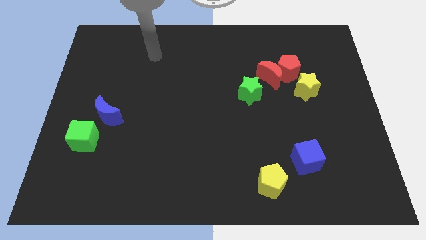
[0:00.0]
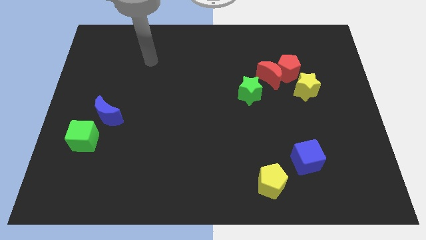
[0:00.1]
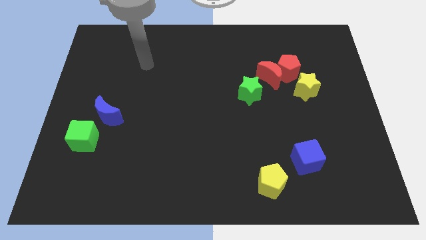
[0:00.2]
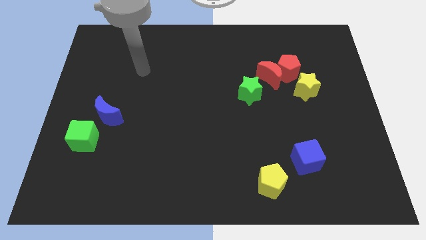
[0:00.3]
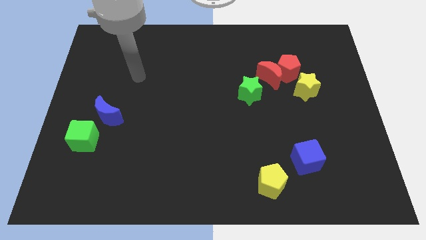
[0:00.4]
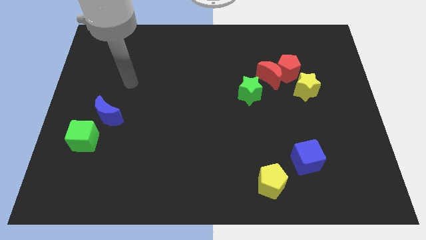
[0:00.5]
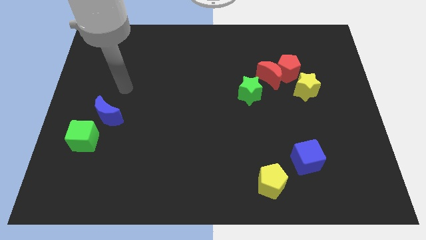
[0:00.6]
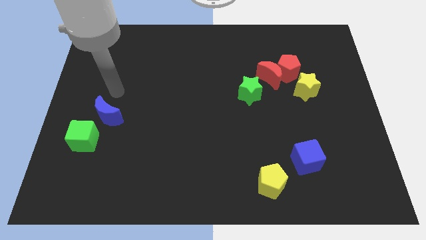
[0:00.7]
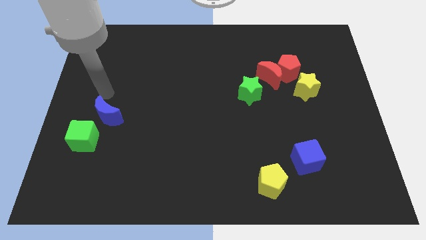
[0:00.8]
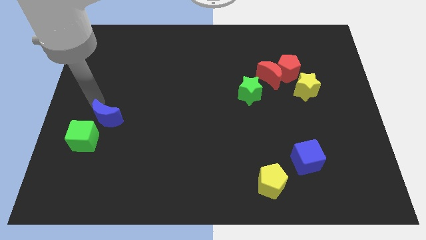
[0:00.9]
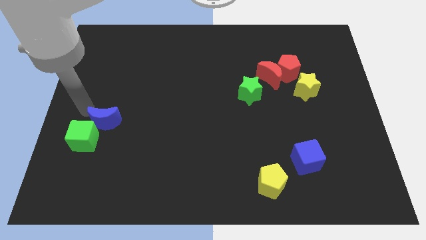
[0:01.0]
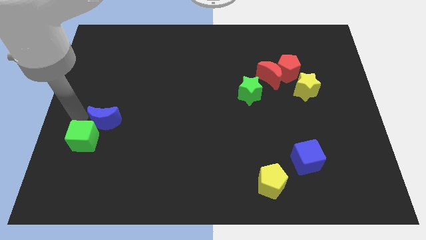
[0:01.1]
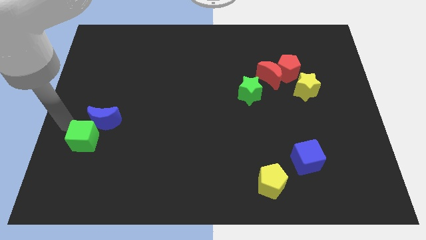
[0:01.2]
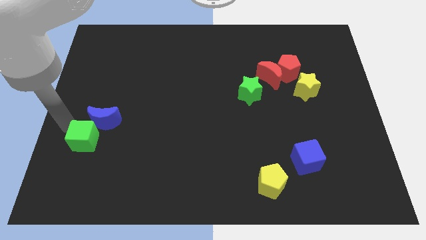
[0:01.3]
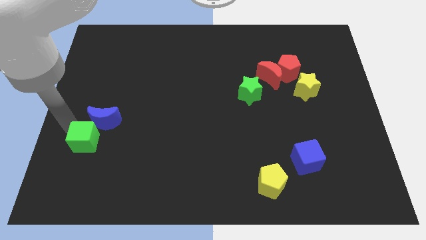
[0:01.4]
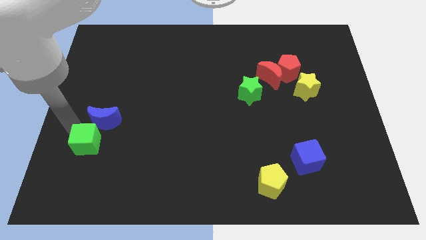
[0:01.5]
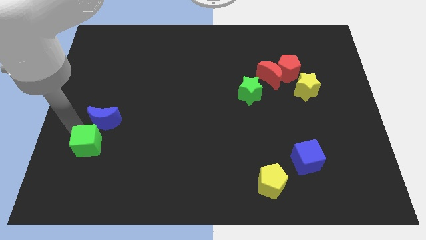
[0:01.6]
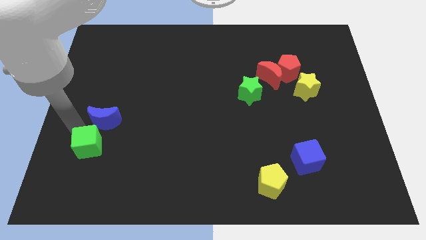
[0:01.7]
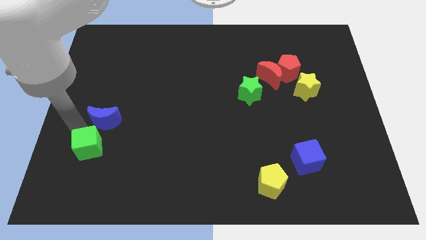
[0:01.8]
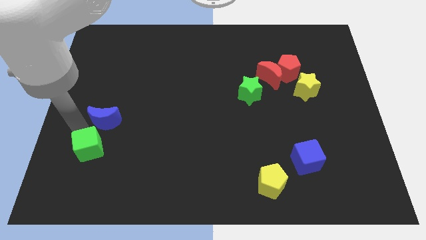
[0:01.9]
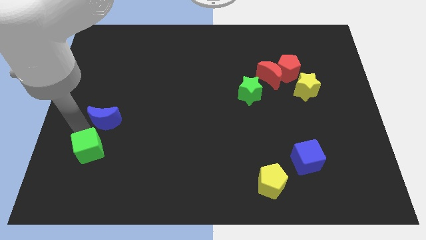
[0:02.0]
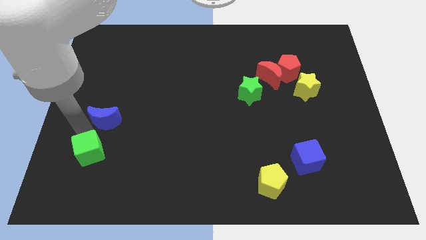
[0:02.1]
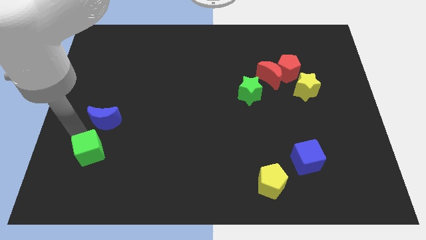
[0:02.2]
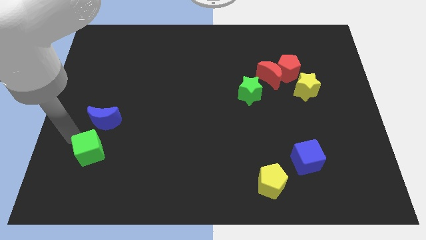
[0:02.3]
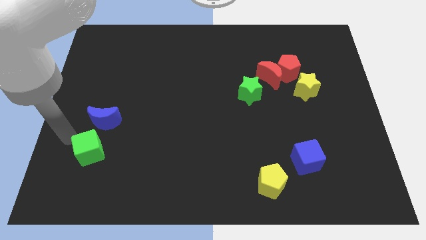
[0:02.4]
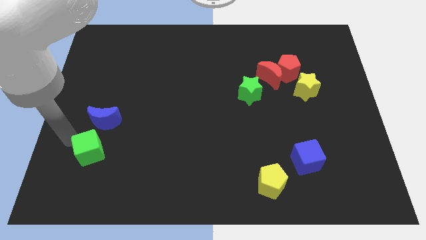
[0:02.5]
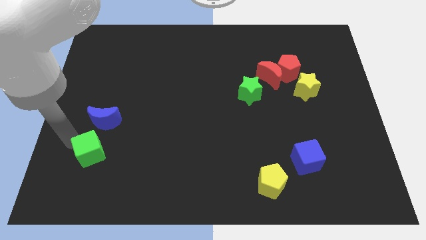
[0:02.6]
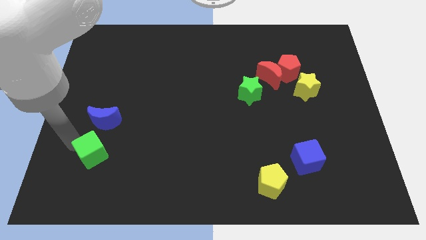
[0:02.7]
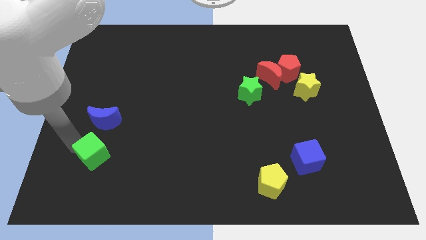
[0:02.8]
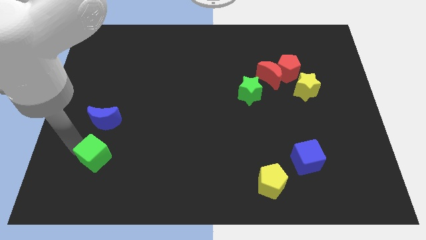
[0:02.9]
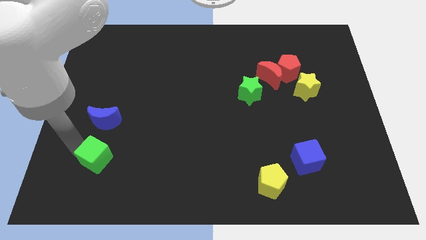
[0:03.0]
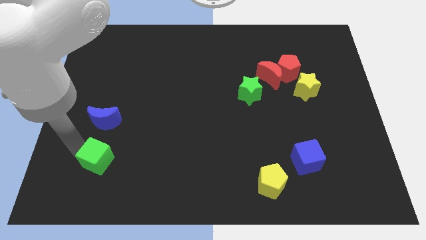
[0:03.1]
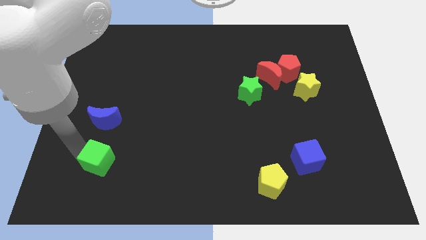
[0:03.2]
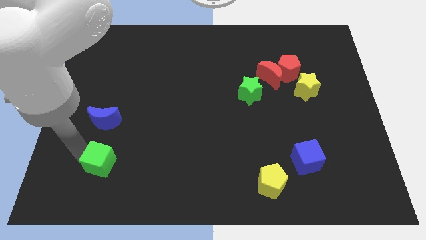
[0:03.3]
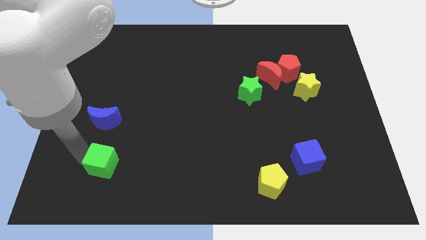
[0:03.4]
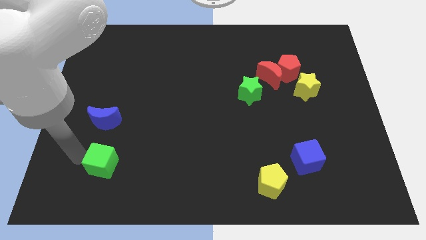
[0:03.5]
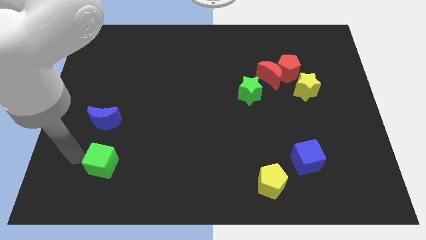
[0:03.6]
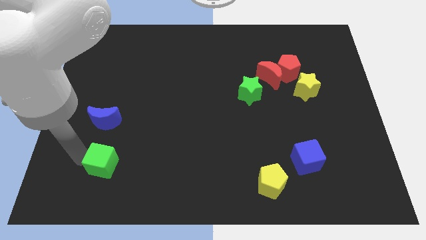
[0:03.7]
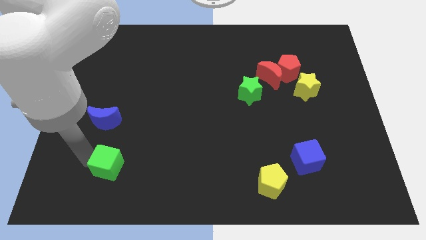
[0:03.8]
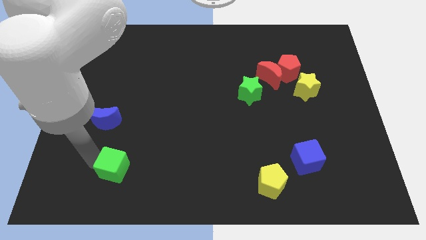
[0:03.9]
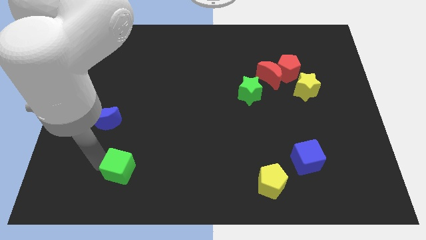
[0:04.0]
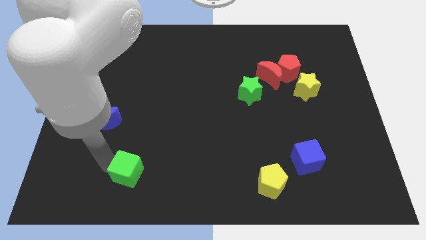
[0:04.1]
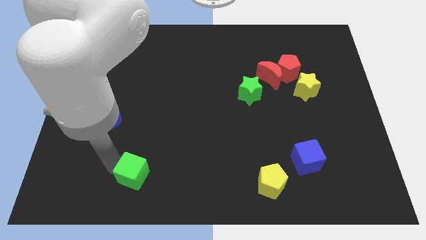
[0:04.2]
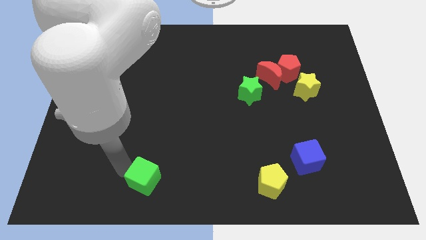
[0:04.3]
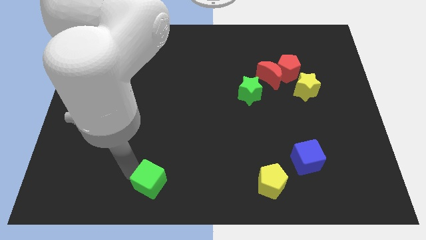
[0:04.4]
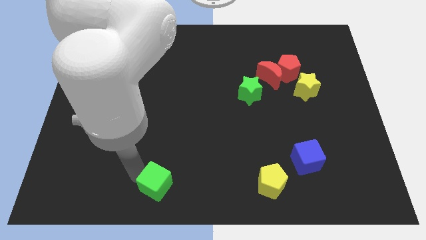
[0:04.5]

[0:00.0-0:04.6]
slide the green cube to the bottom

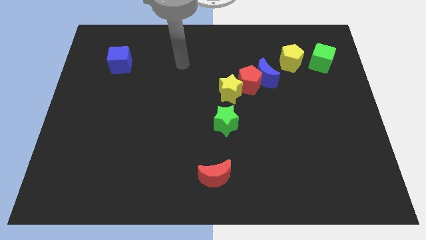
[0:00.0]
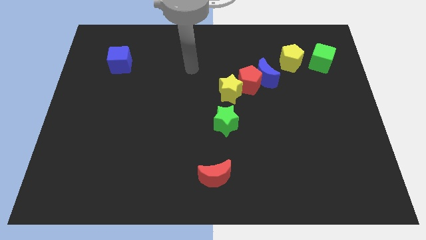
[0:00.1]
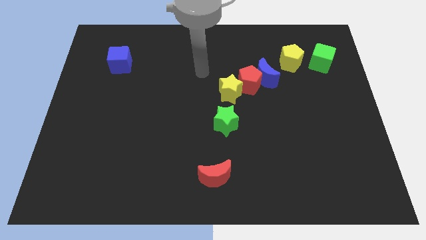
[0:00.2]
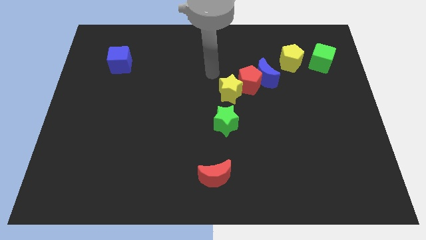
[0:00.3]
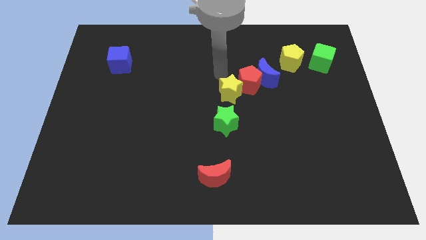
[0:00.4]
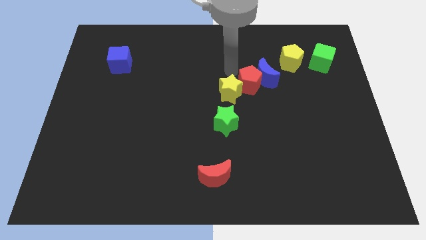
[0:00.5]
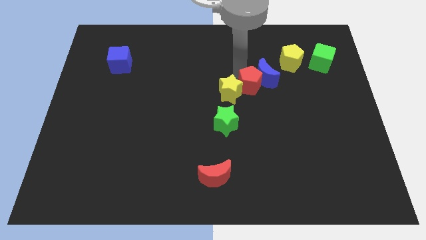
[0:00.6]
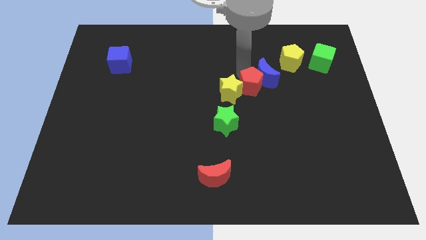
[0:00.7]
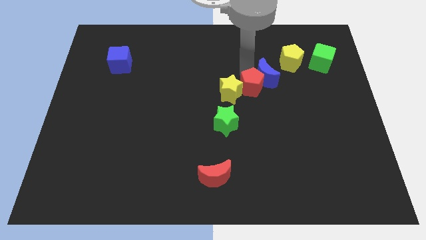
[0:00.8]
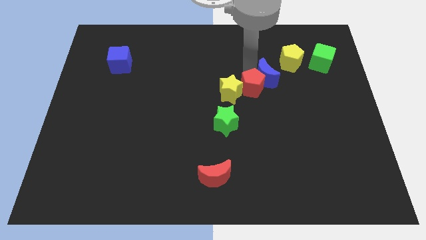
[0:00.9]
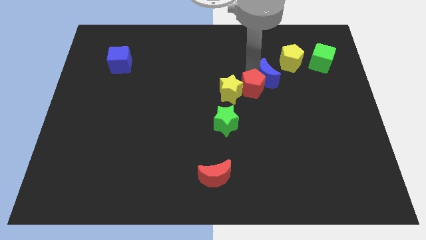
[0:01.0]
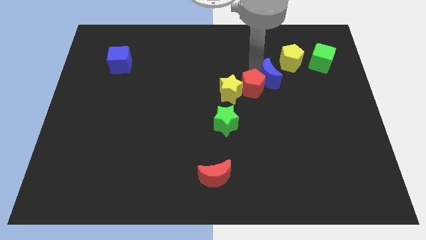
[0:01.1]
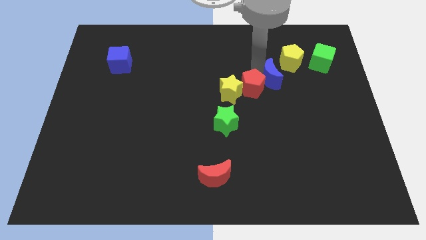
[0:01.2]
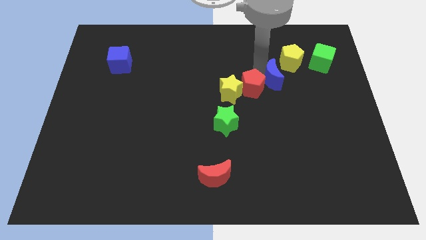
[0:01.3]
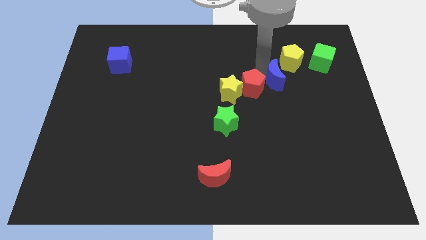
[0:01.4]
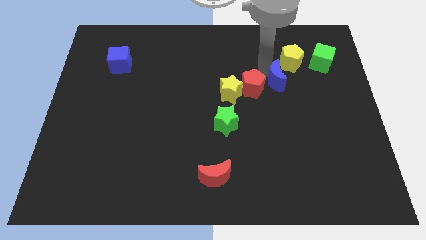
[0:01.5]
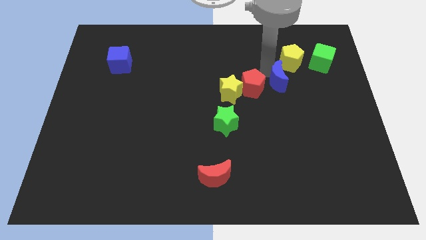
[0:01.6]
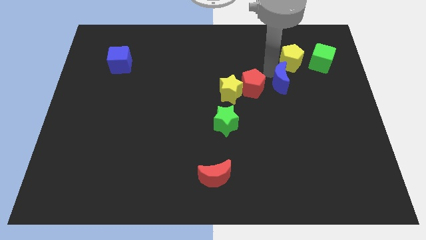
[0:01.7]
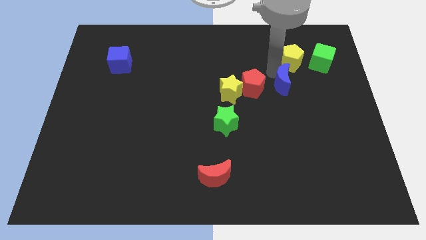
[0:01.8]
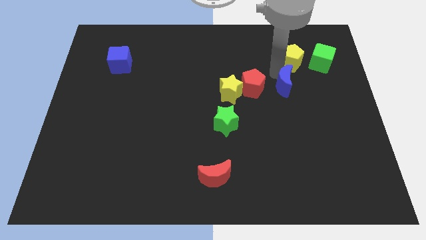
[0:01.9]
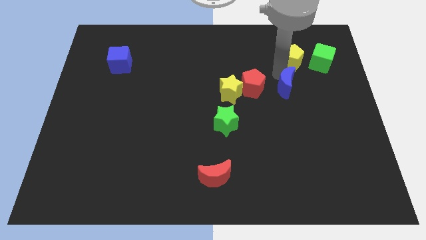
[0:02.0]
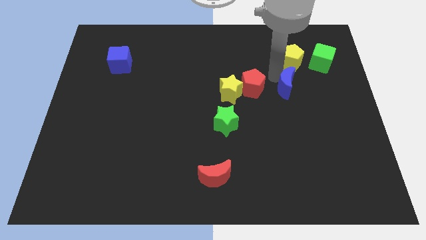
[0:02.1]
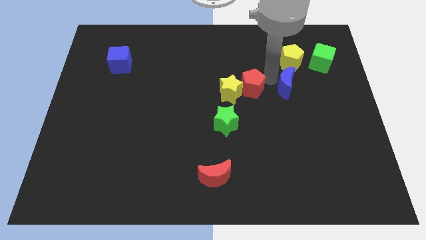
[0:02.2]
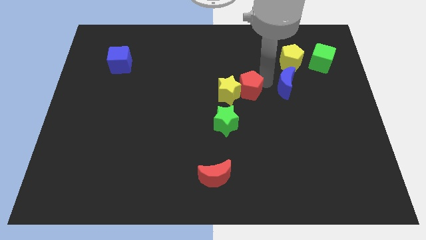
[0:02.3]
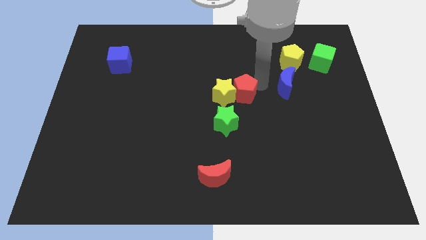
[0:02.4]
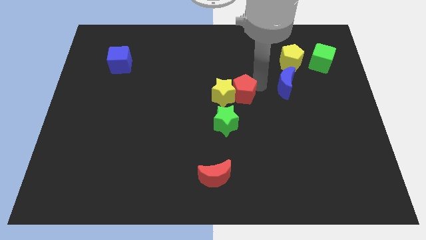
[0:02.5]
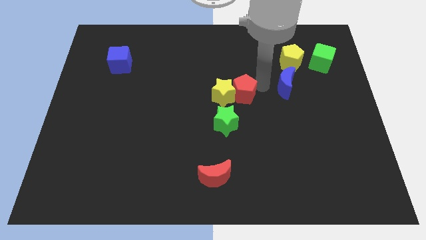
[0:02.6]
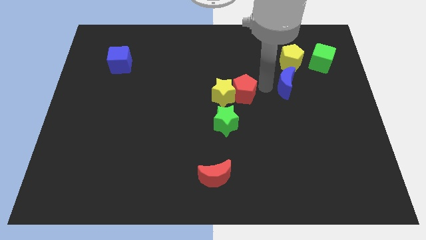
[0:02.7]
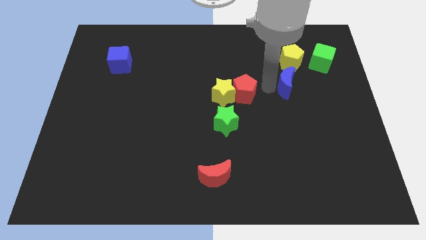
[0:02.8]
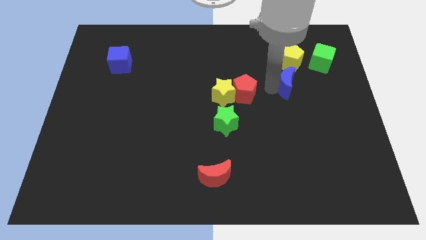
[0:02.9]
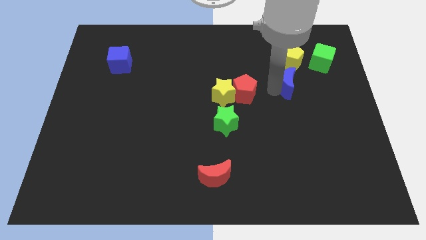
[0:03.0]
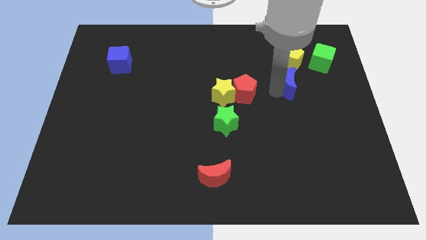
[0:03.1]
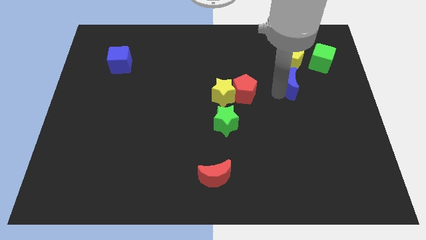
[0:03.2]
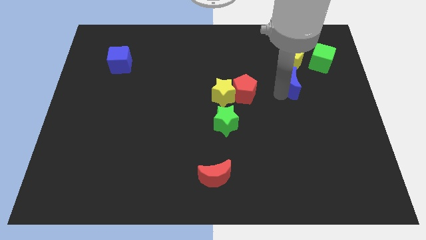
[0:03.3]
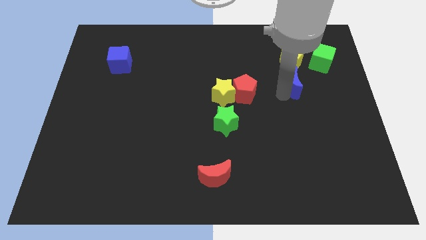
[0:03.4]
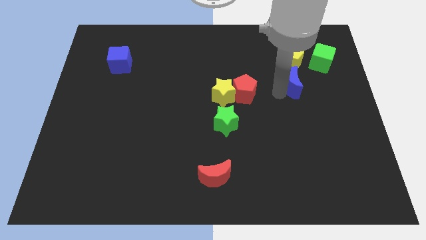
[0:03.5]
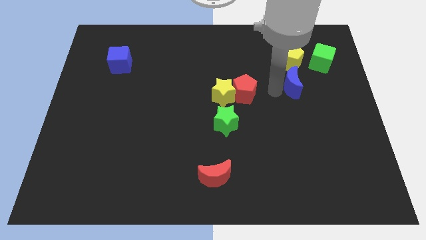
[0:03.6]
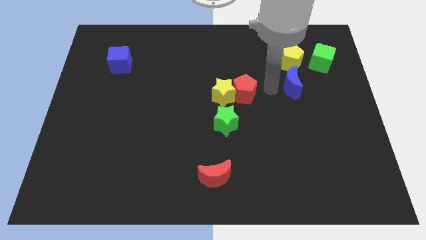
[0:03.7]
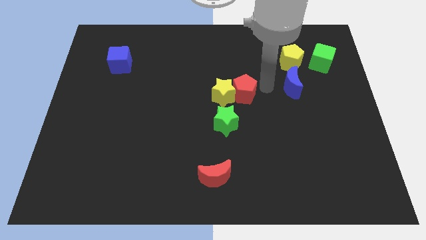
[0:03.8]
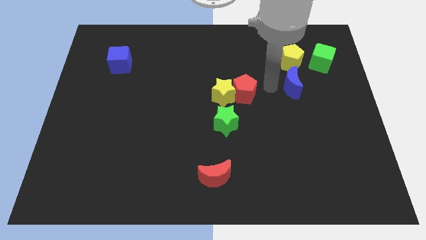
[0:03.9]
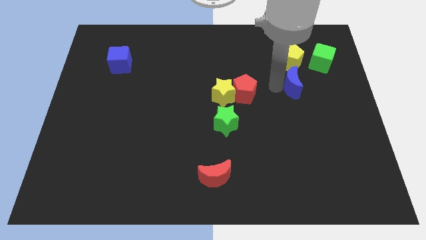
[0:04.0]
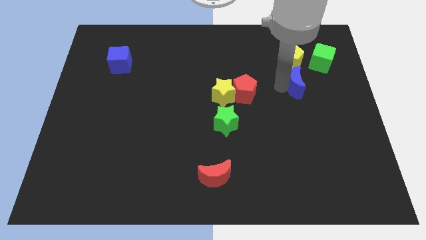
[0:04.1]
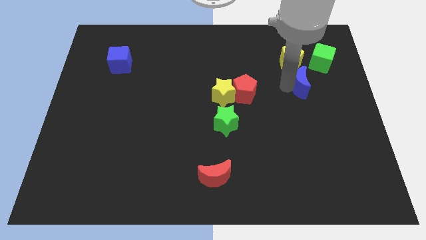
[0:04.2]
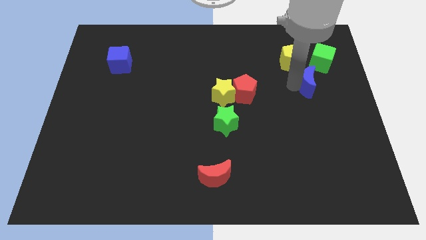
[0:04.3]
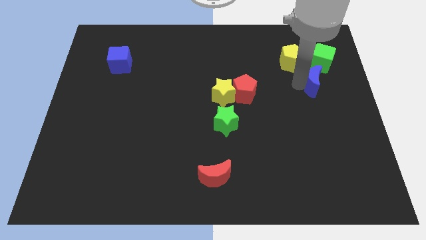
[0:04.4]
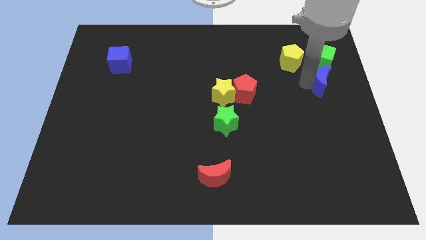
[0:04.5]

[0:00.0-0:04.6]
move the blue moon to the center right
